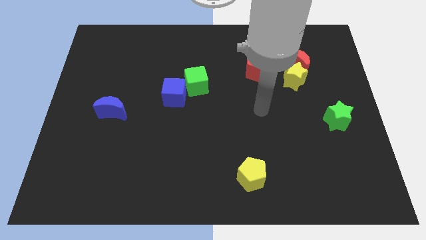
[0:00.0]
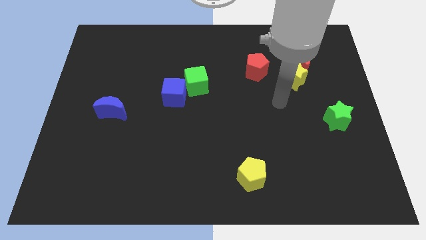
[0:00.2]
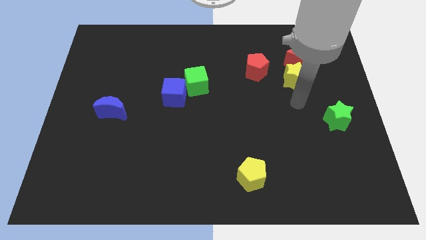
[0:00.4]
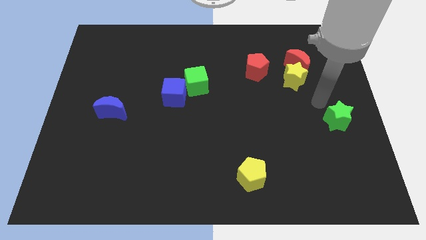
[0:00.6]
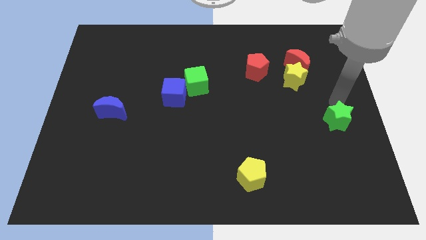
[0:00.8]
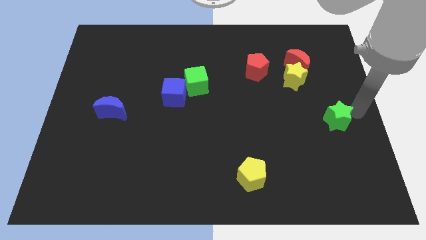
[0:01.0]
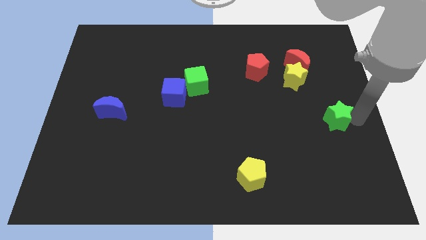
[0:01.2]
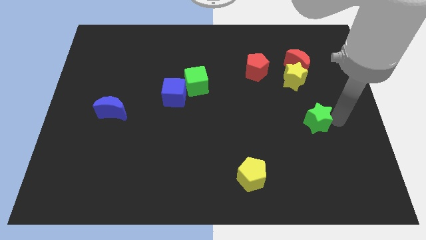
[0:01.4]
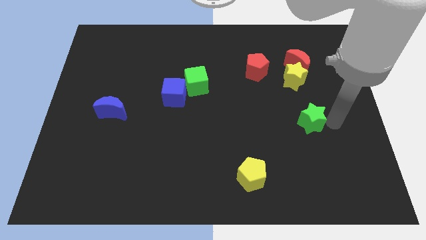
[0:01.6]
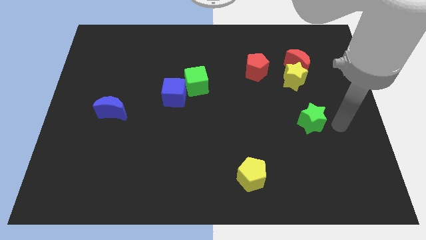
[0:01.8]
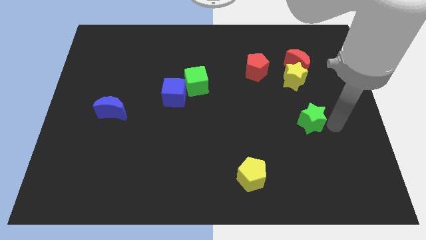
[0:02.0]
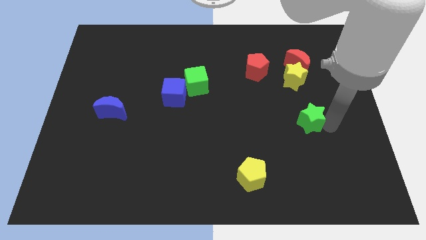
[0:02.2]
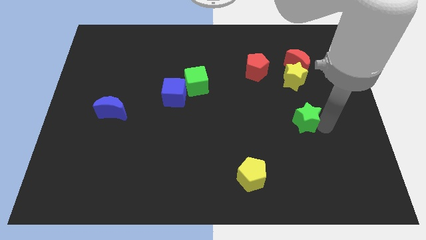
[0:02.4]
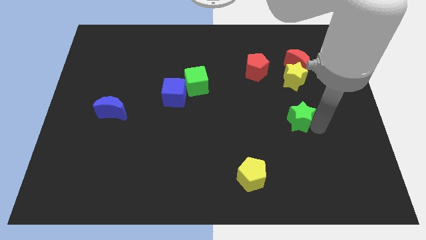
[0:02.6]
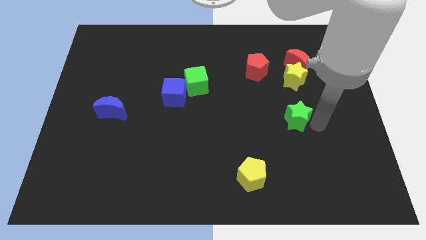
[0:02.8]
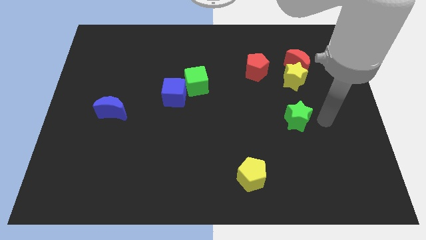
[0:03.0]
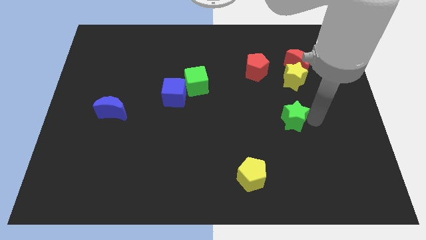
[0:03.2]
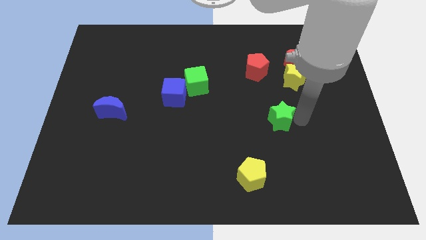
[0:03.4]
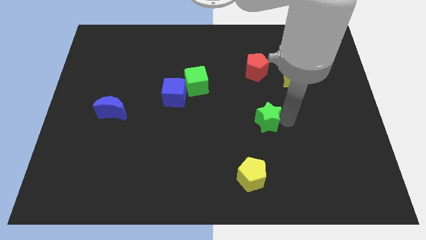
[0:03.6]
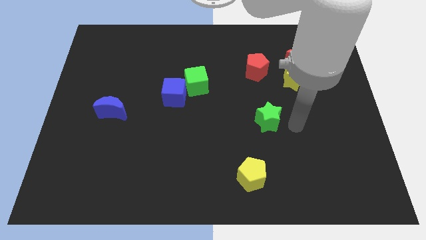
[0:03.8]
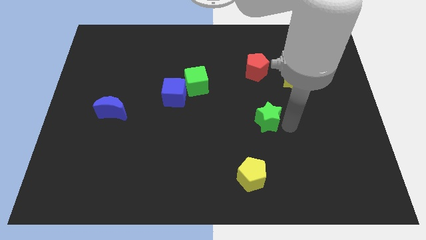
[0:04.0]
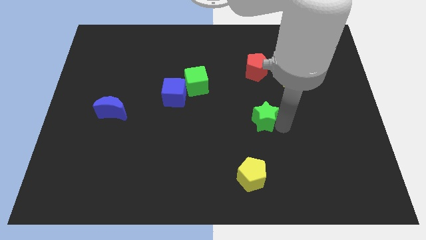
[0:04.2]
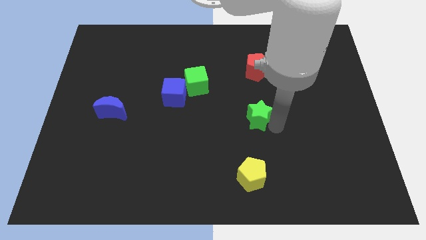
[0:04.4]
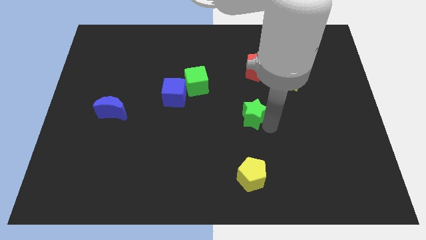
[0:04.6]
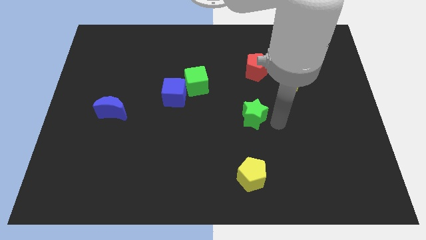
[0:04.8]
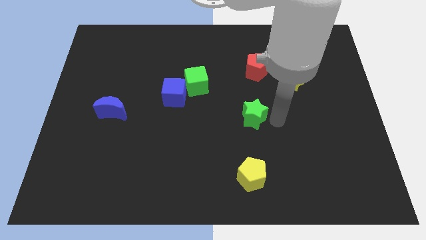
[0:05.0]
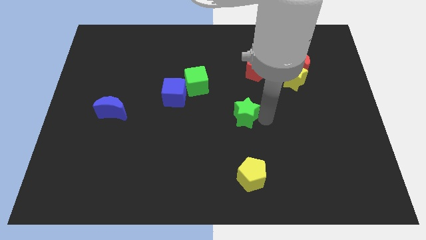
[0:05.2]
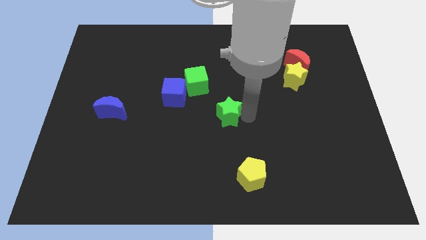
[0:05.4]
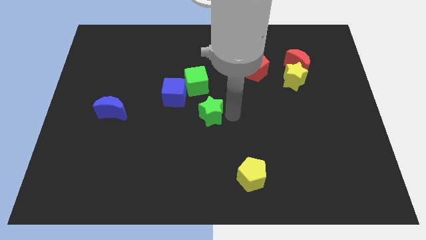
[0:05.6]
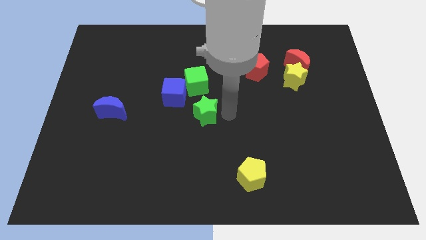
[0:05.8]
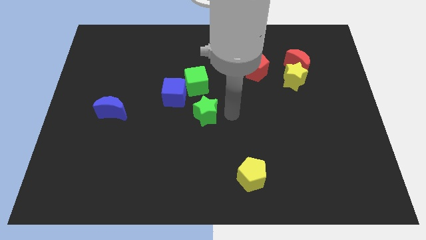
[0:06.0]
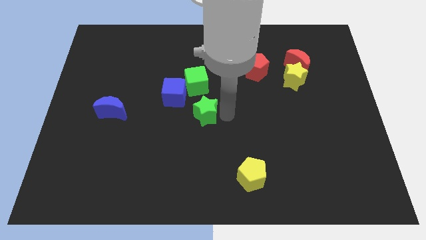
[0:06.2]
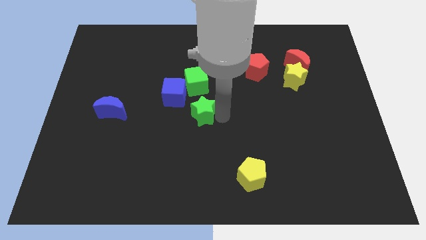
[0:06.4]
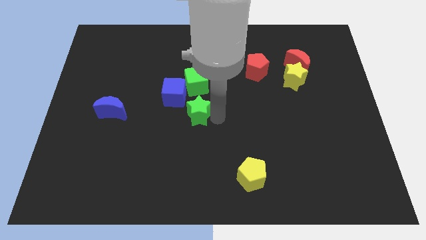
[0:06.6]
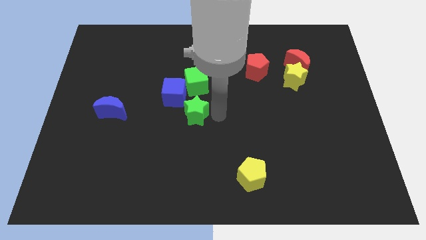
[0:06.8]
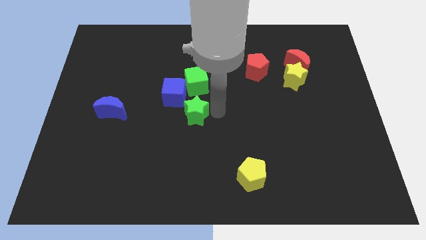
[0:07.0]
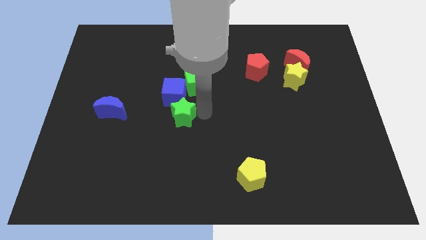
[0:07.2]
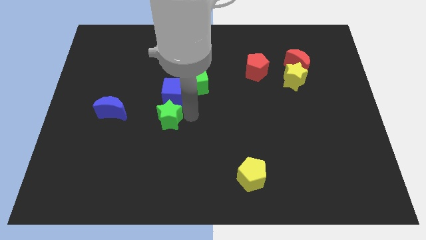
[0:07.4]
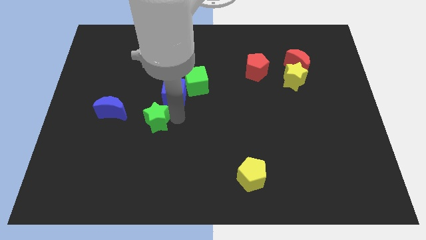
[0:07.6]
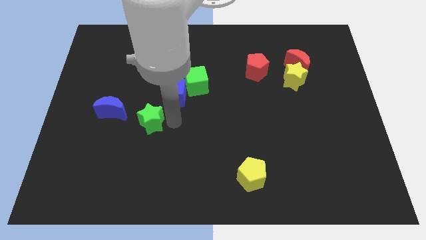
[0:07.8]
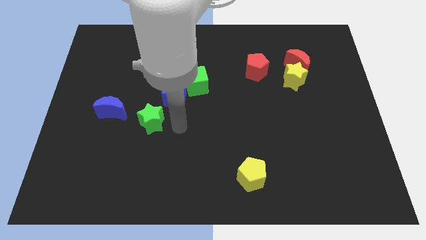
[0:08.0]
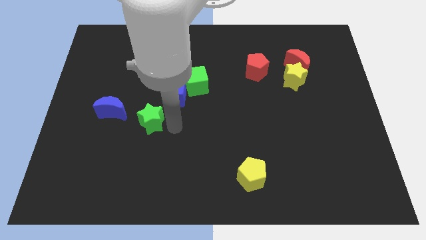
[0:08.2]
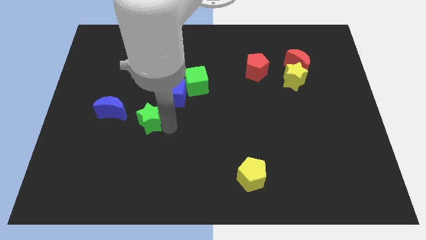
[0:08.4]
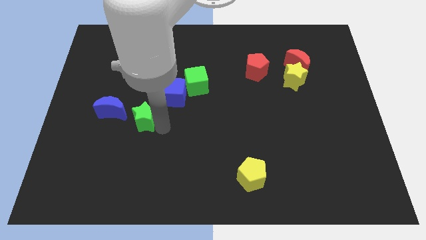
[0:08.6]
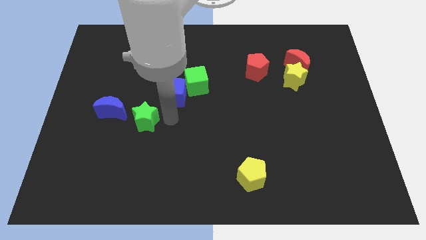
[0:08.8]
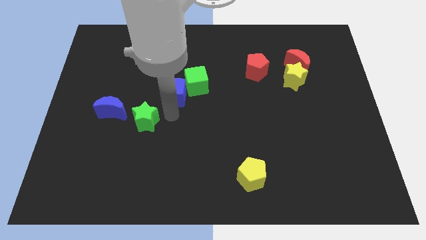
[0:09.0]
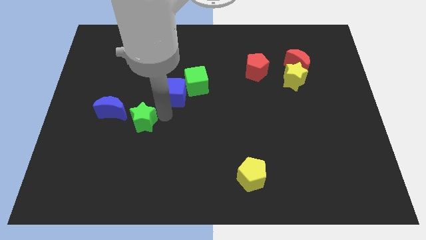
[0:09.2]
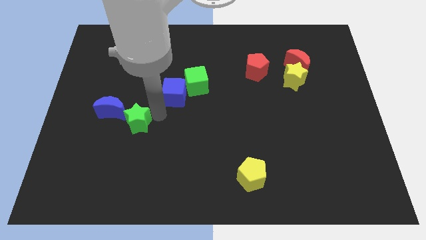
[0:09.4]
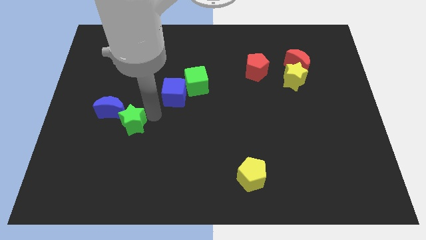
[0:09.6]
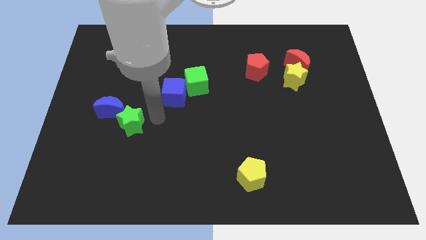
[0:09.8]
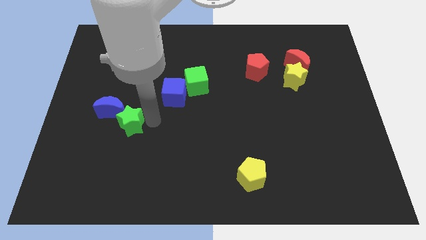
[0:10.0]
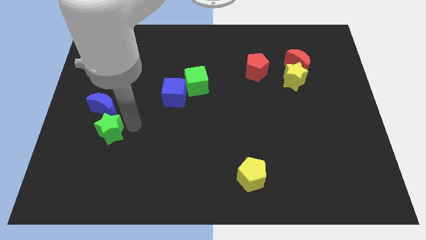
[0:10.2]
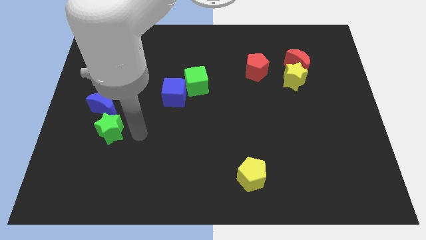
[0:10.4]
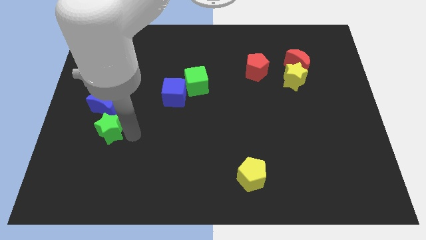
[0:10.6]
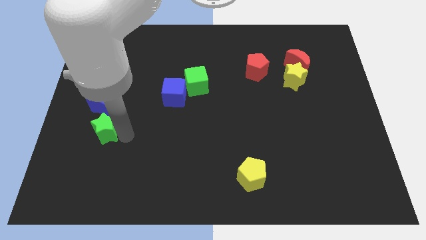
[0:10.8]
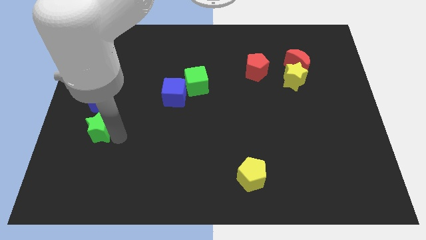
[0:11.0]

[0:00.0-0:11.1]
put the green star diagonally down and to the left of the blue moon

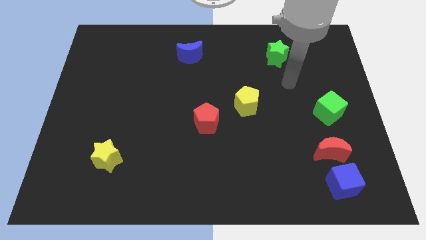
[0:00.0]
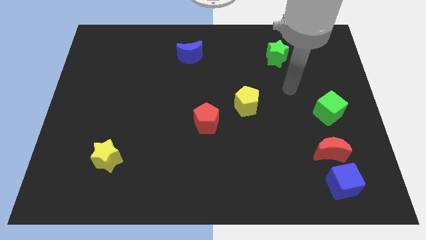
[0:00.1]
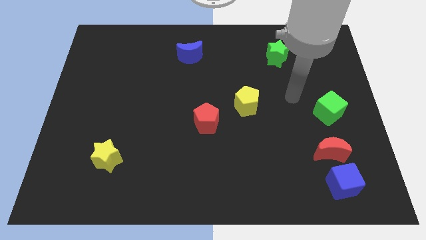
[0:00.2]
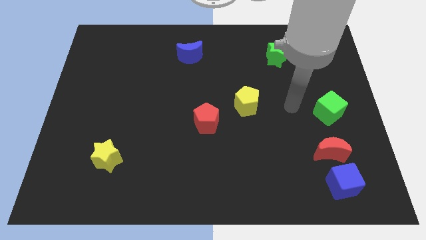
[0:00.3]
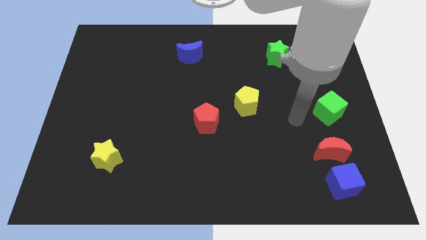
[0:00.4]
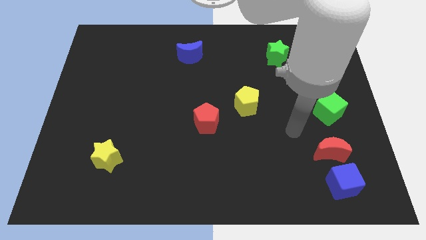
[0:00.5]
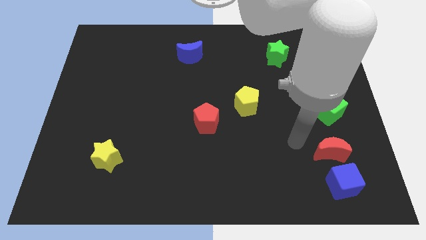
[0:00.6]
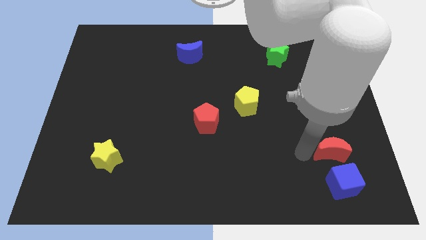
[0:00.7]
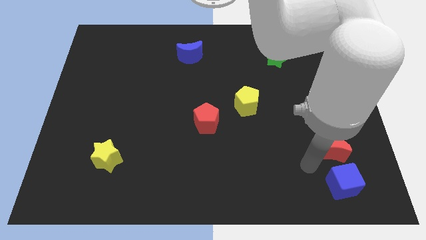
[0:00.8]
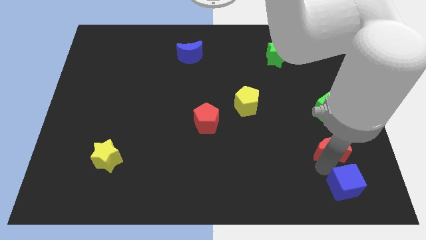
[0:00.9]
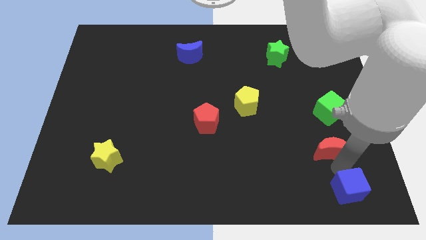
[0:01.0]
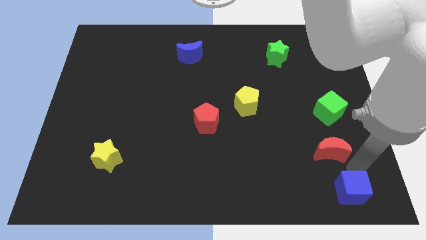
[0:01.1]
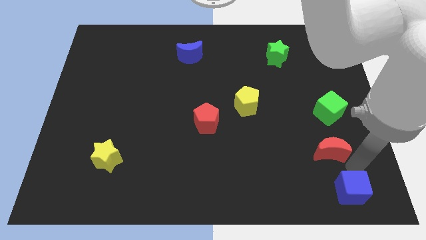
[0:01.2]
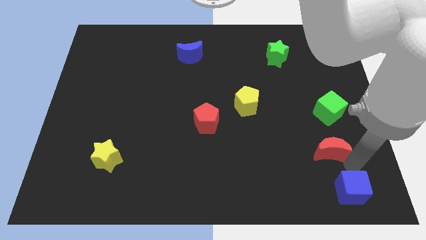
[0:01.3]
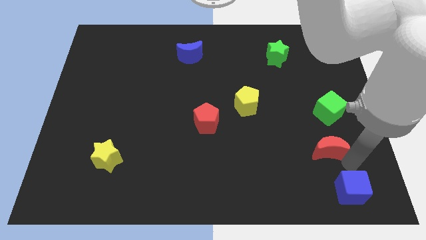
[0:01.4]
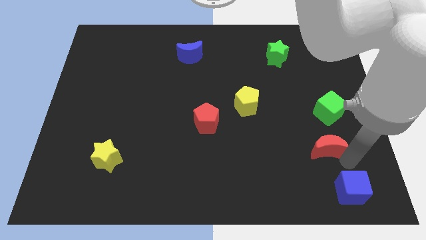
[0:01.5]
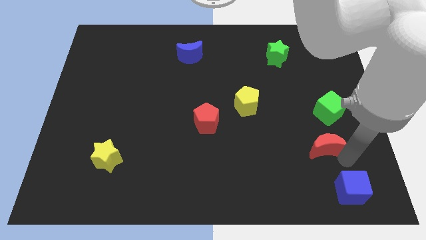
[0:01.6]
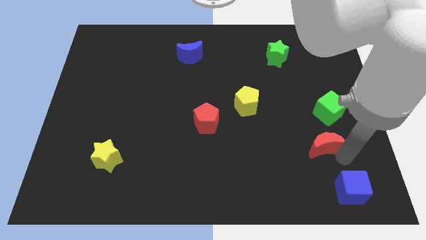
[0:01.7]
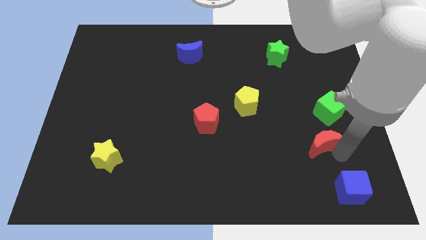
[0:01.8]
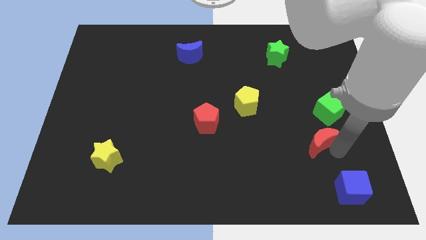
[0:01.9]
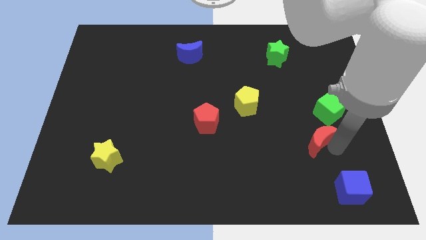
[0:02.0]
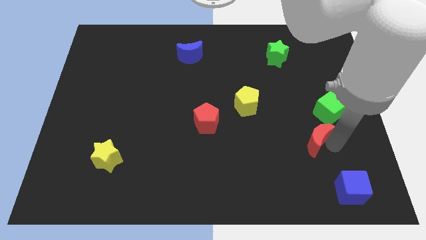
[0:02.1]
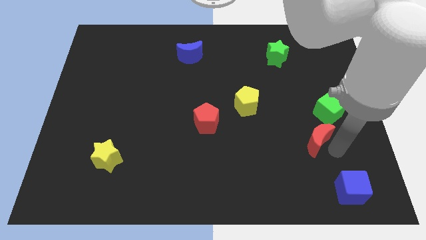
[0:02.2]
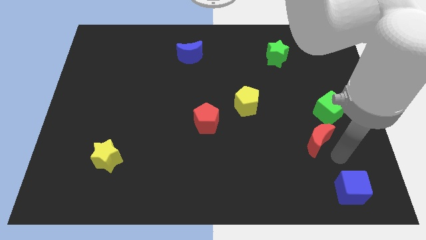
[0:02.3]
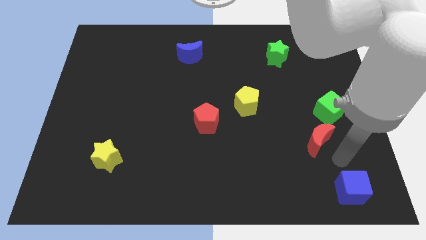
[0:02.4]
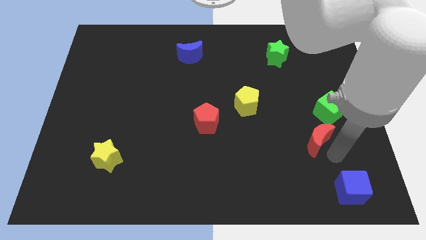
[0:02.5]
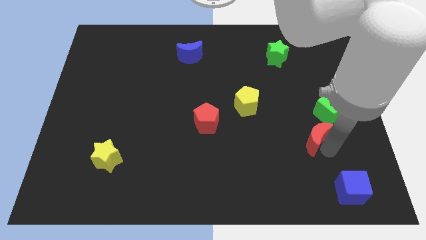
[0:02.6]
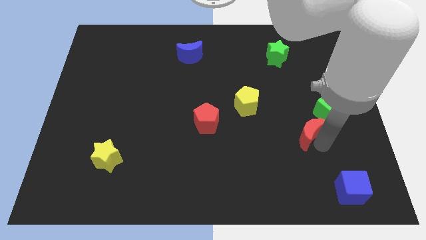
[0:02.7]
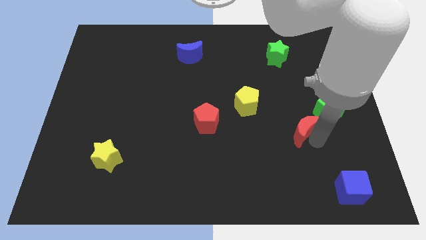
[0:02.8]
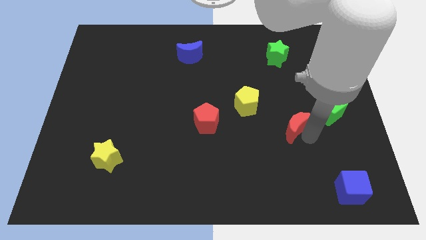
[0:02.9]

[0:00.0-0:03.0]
put the red moon just left of the green cube
